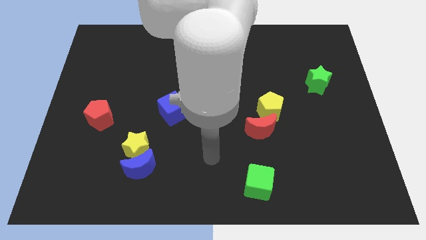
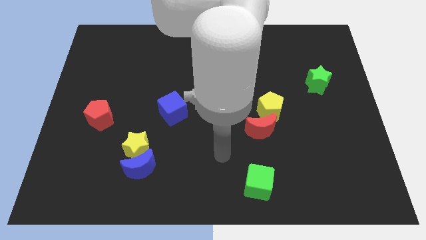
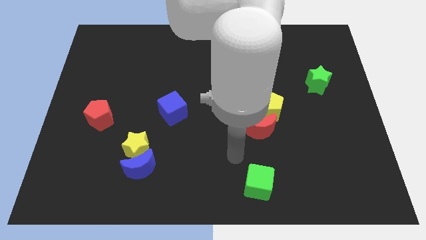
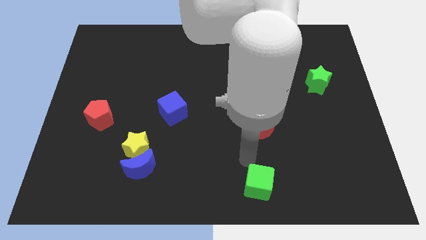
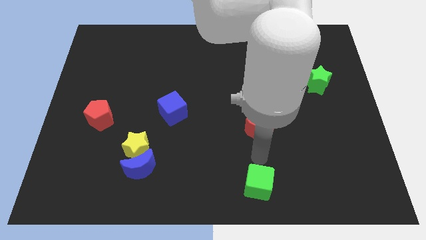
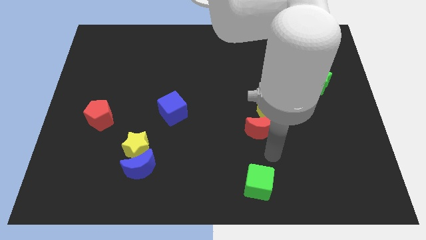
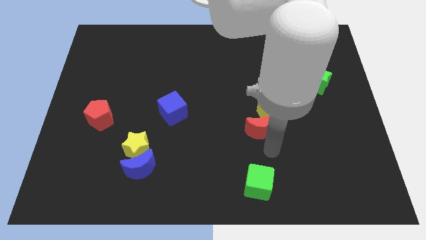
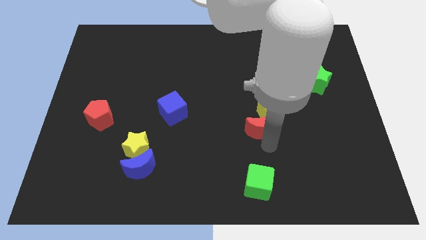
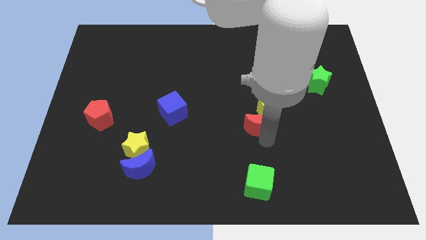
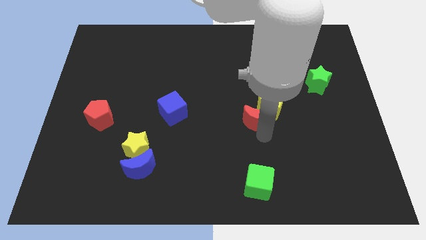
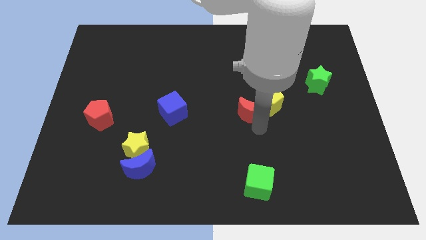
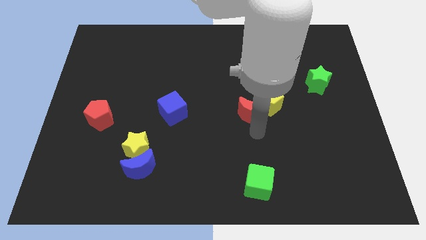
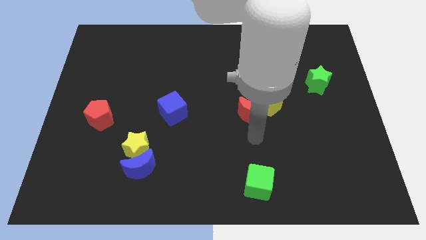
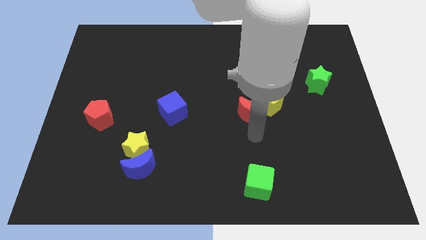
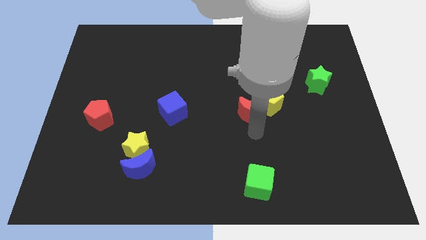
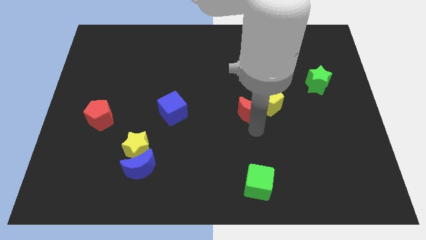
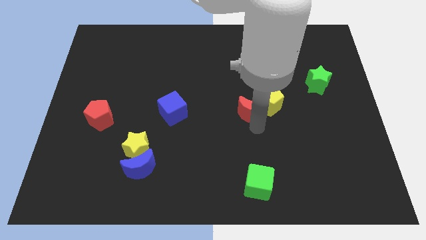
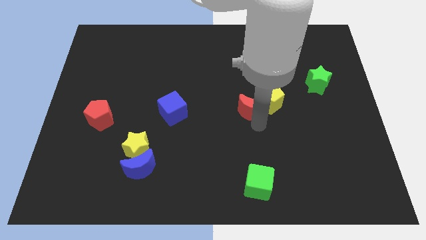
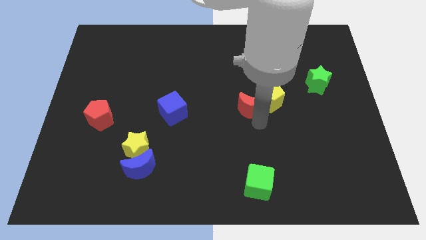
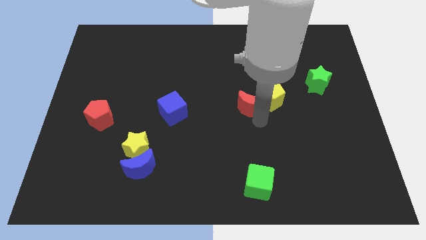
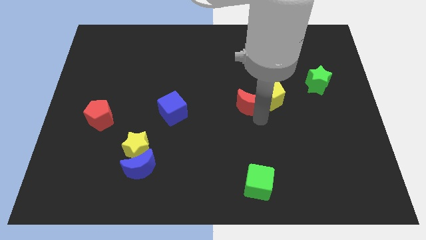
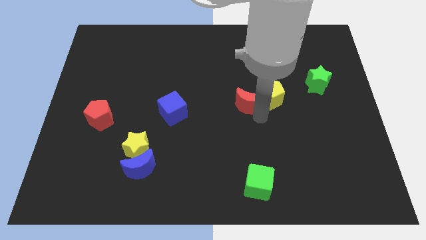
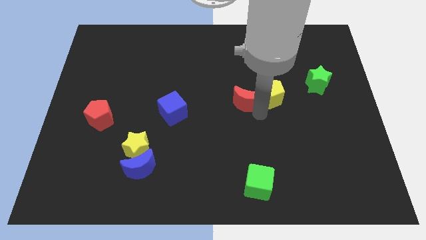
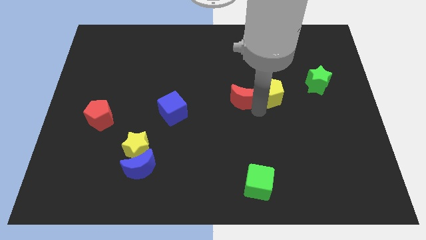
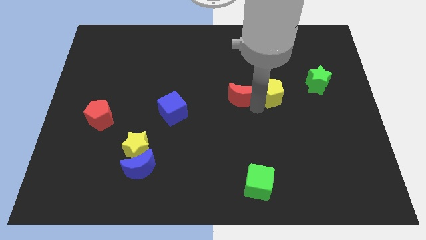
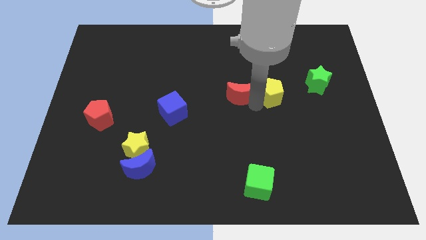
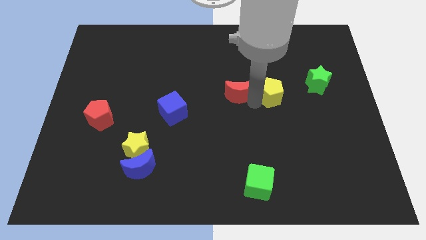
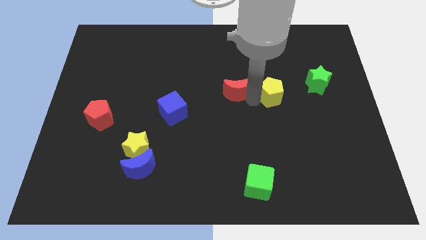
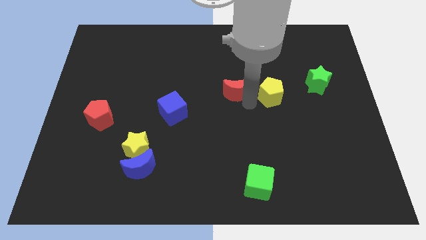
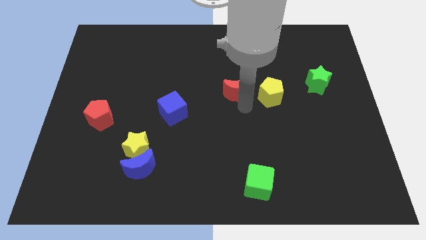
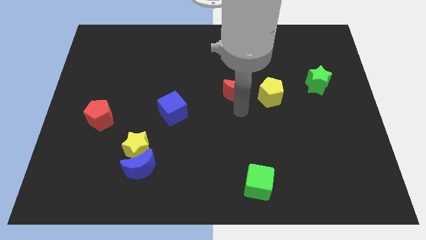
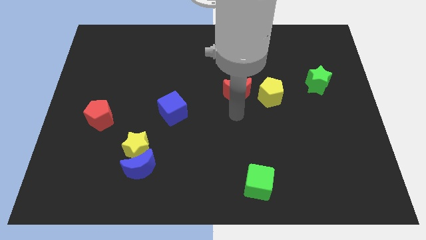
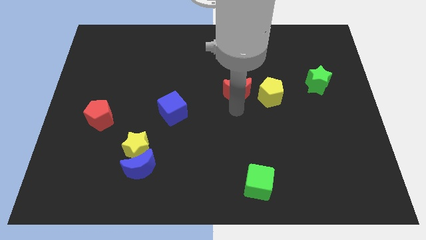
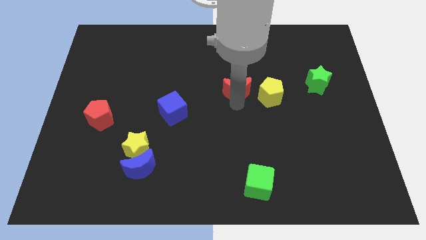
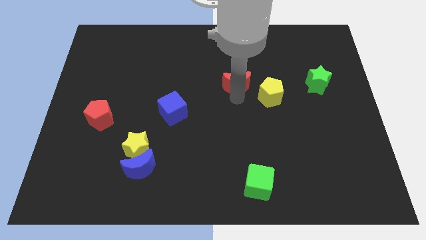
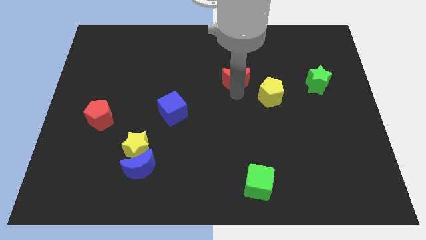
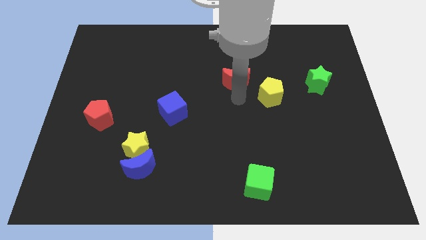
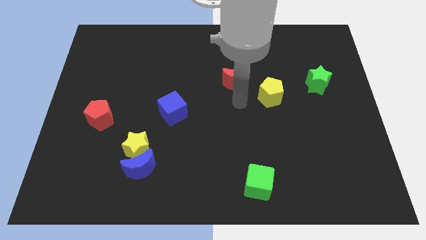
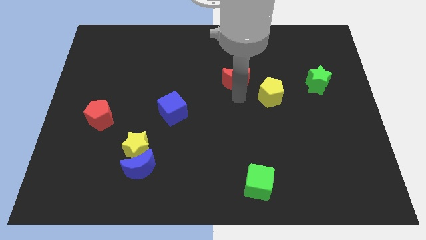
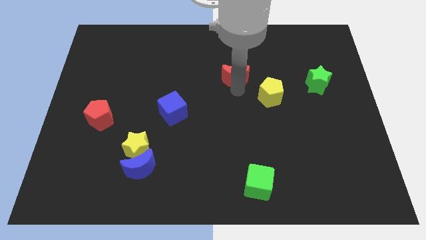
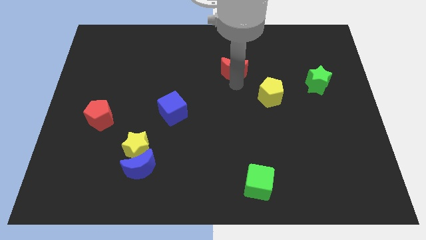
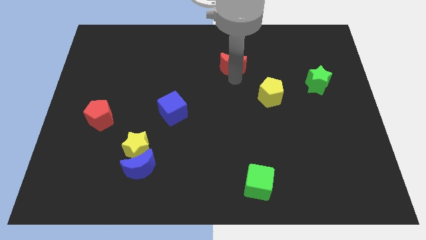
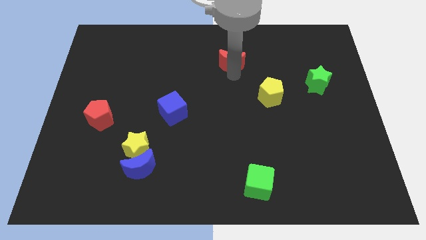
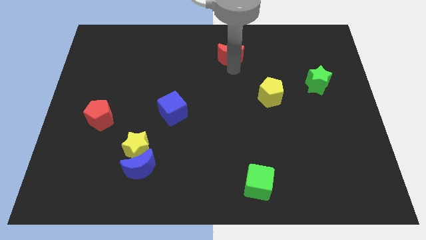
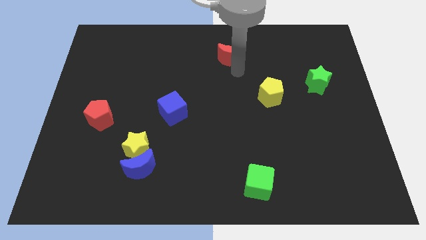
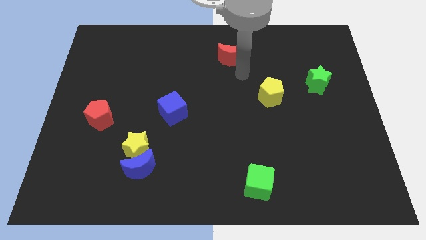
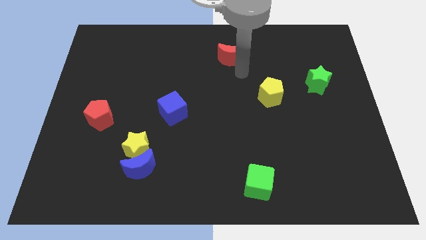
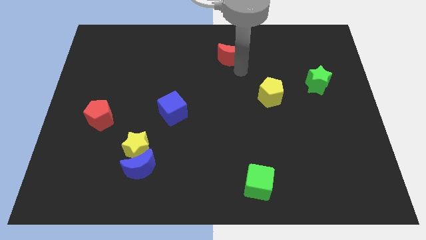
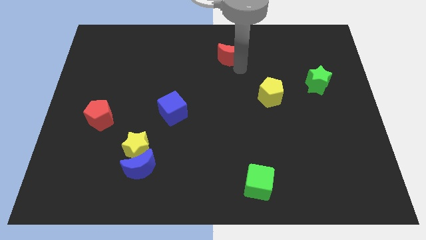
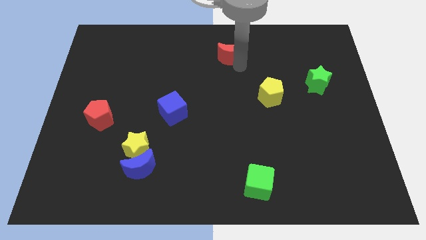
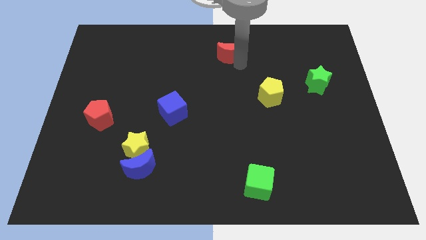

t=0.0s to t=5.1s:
push the red moon to the top side

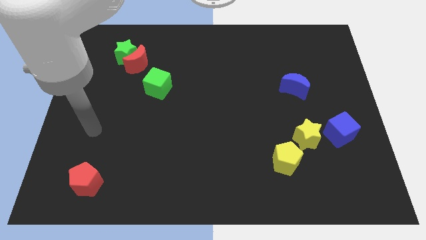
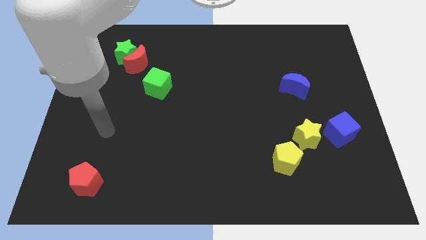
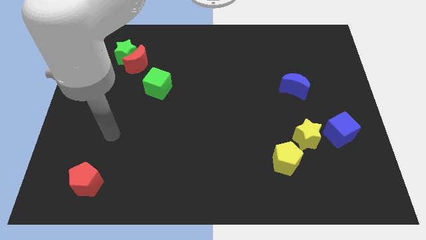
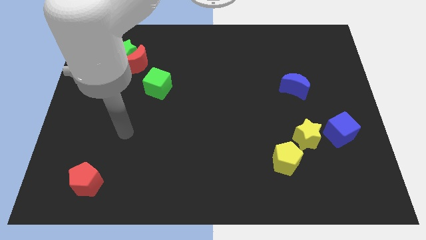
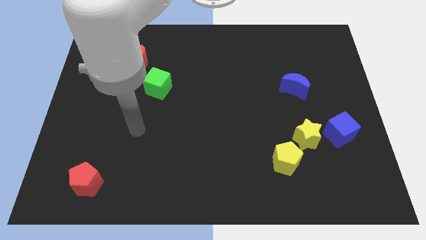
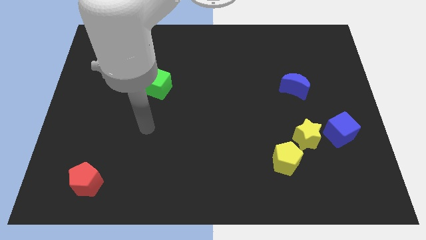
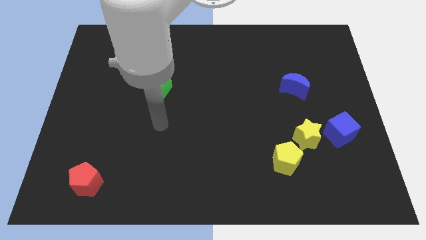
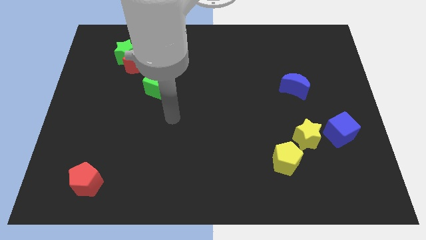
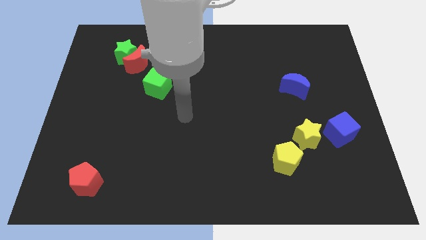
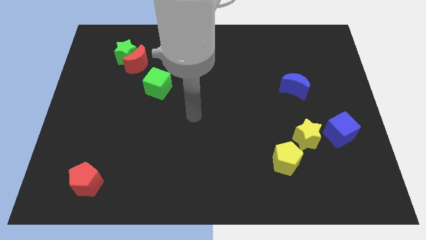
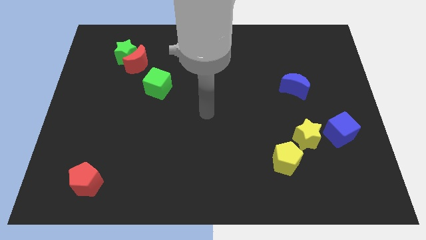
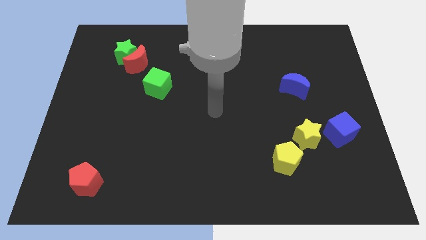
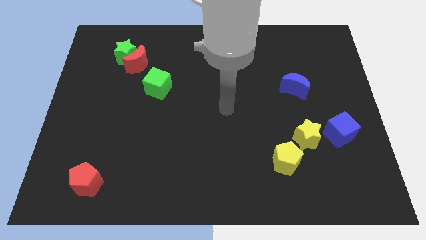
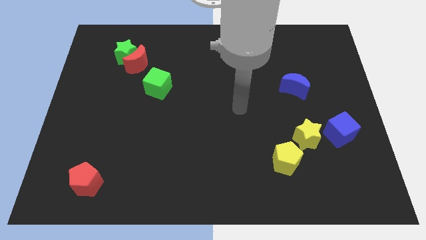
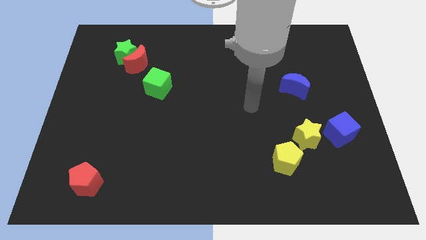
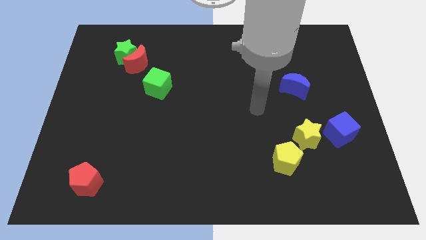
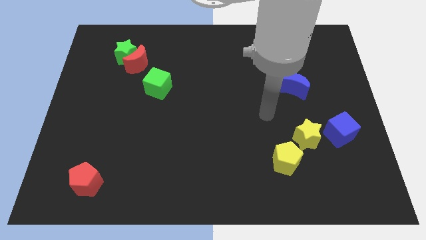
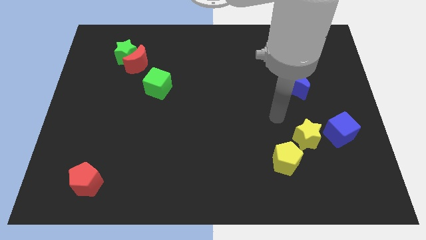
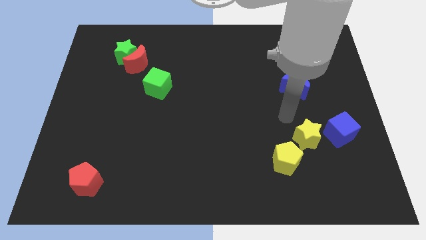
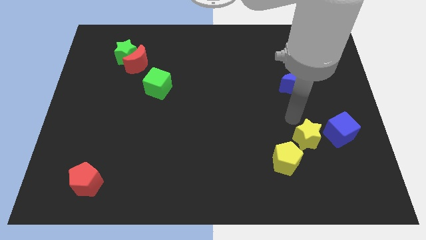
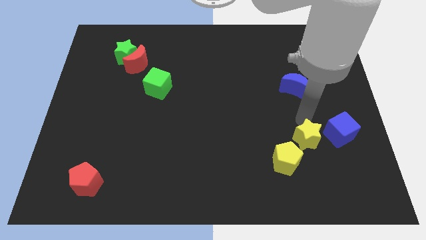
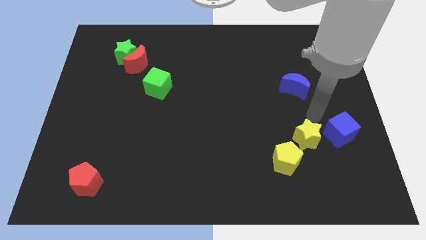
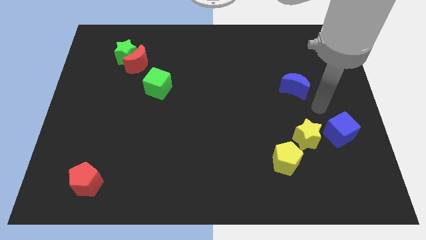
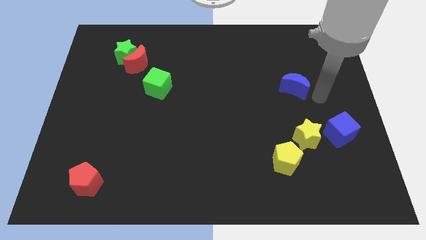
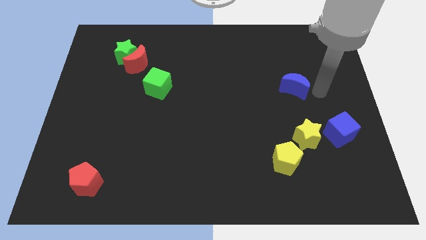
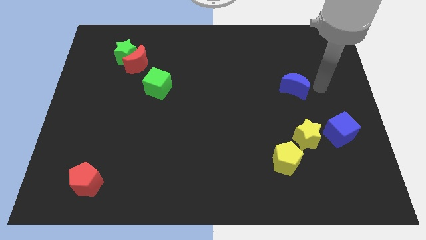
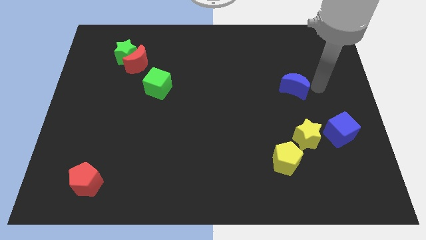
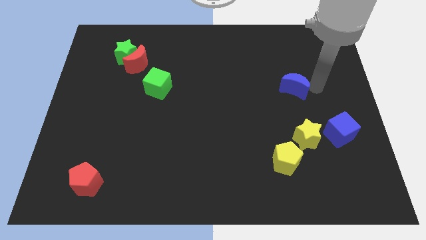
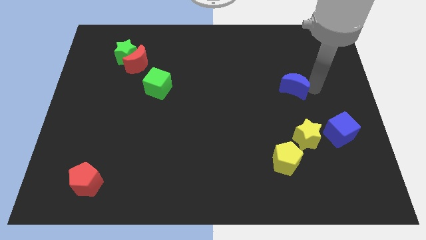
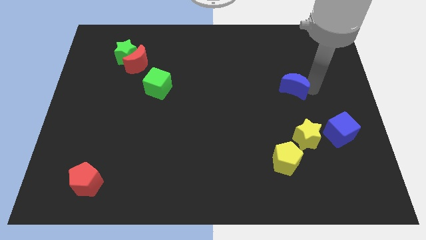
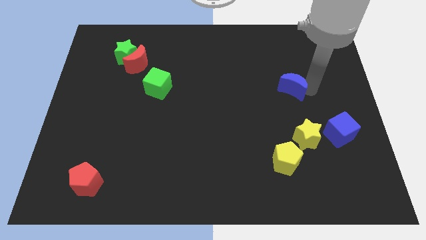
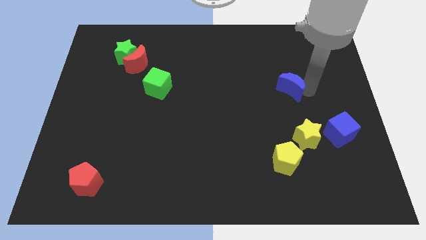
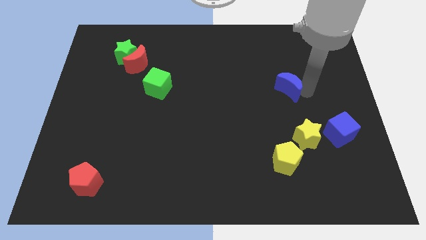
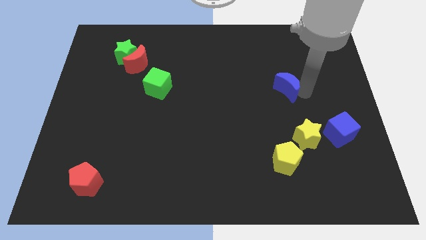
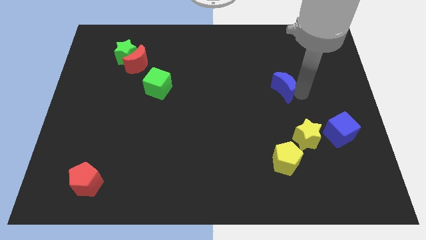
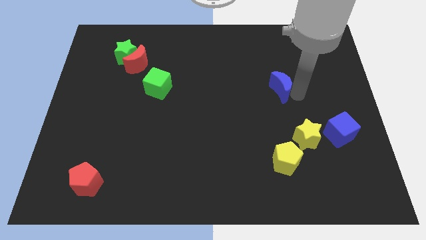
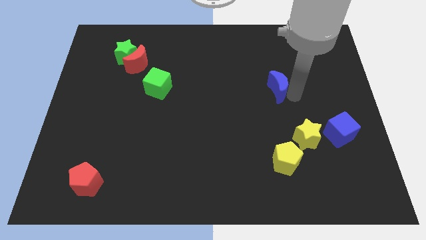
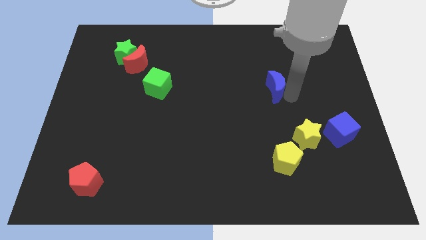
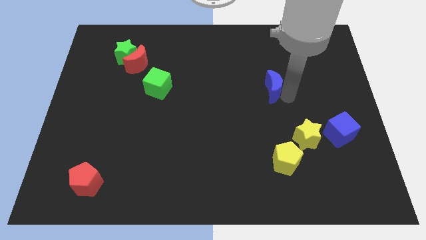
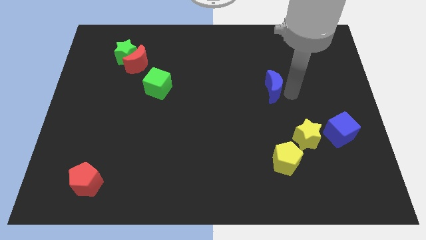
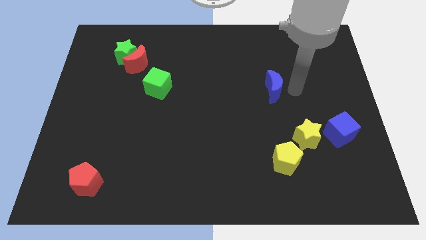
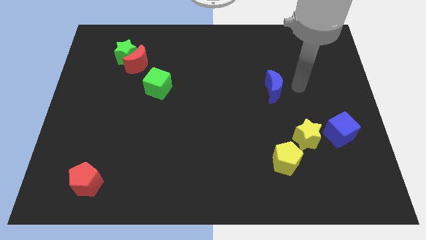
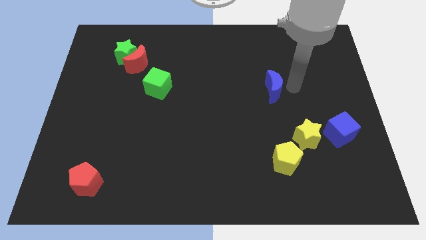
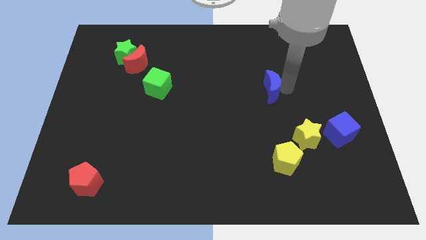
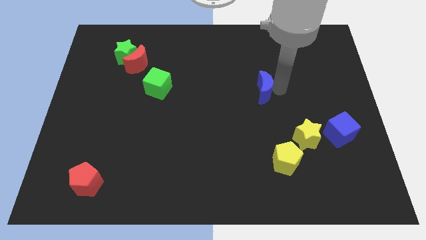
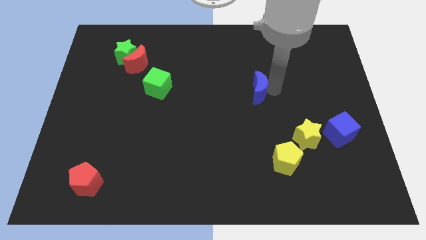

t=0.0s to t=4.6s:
push the blue moon to the center
